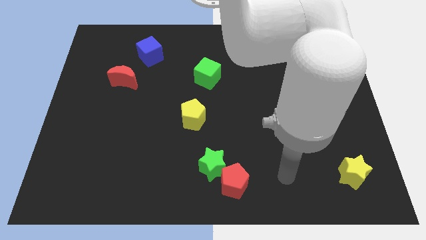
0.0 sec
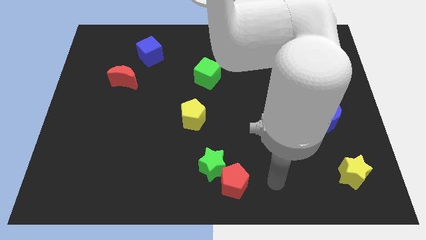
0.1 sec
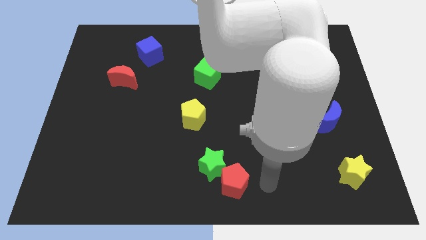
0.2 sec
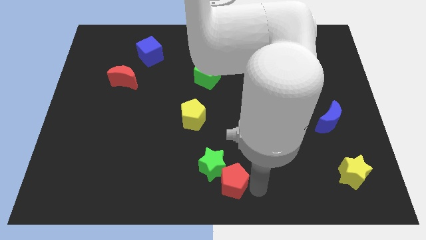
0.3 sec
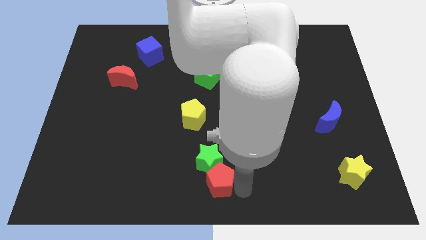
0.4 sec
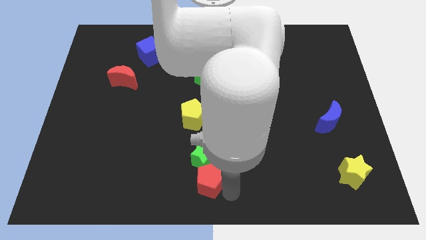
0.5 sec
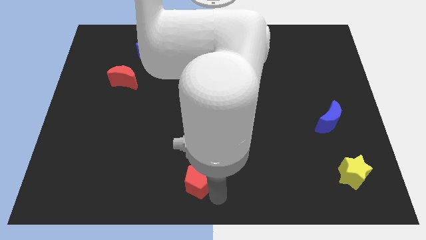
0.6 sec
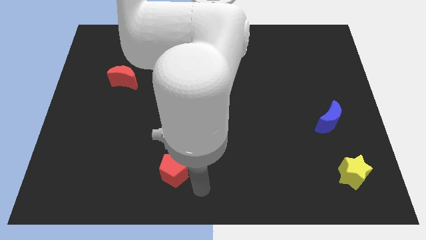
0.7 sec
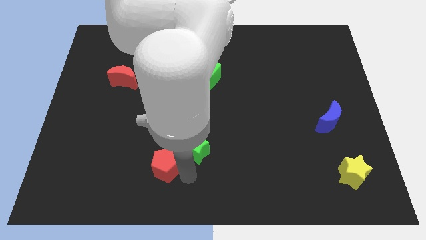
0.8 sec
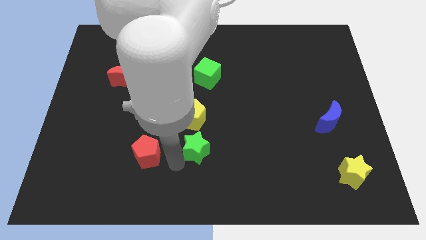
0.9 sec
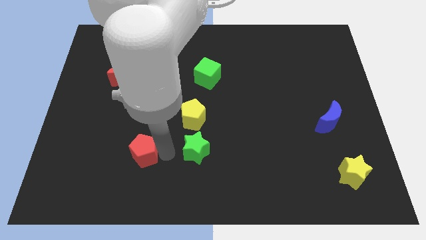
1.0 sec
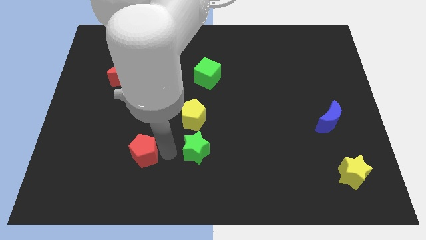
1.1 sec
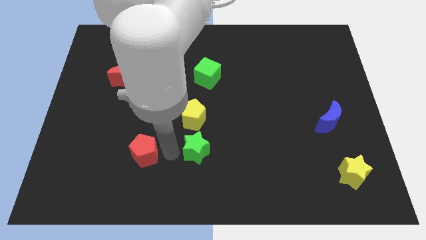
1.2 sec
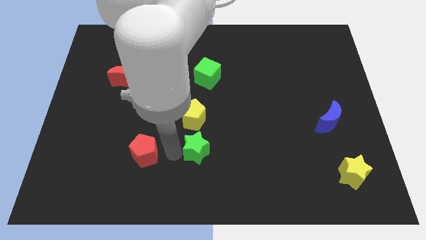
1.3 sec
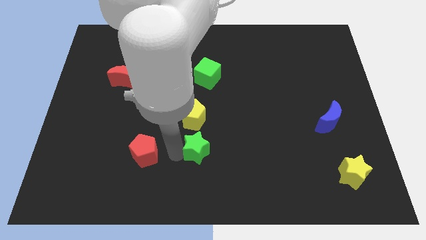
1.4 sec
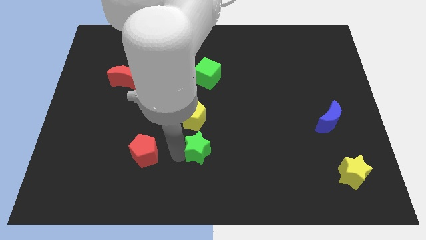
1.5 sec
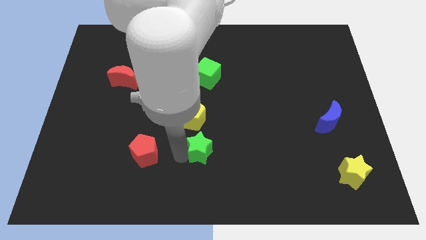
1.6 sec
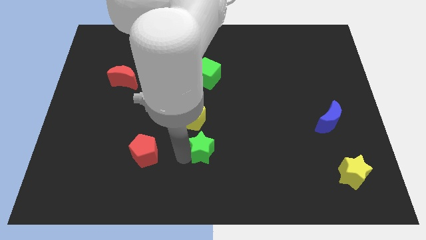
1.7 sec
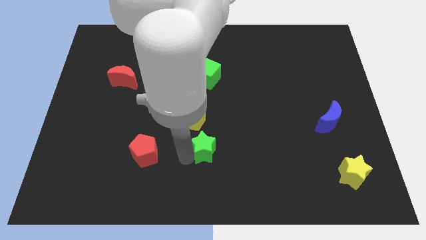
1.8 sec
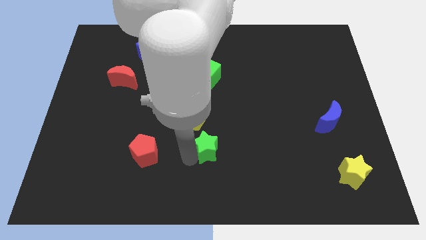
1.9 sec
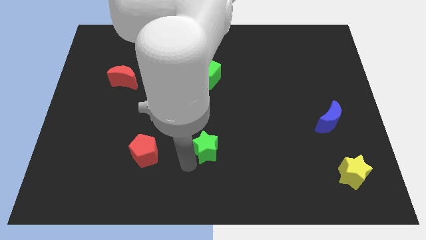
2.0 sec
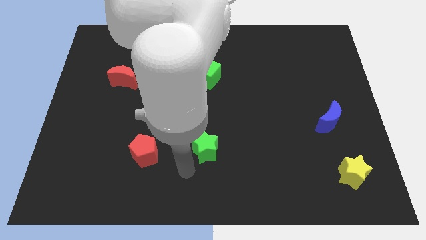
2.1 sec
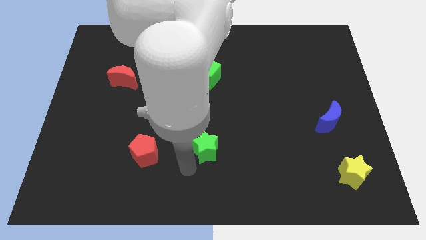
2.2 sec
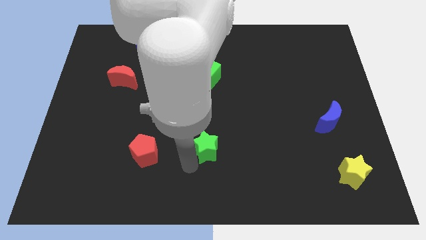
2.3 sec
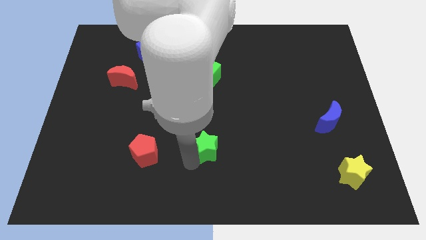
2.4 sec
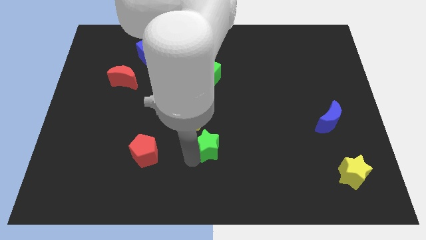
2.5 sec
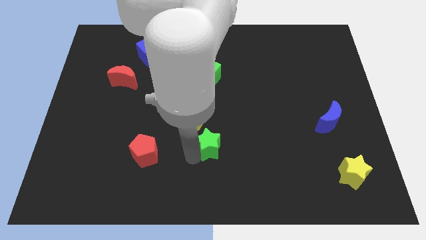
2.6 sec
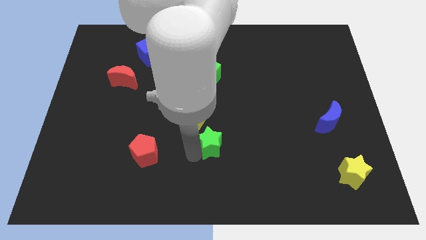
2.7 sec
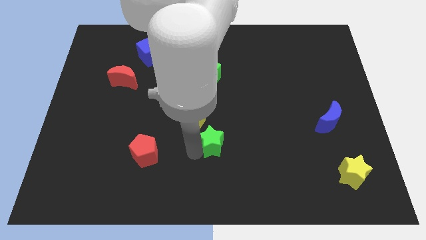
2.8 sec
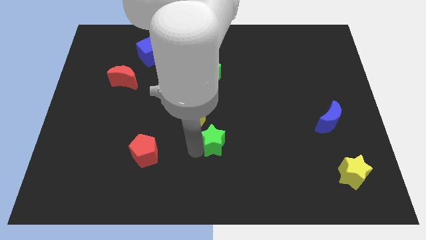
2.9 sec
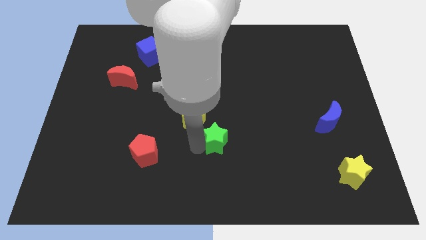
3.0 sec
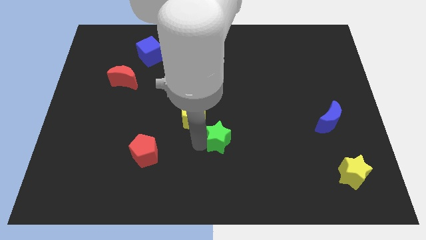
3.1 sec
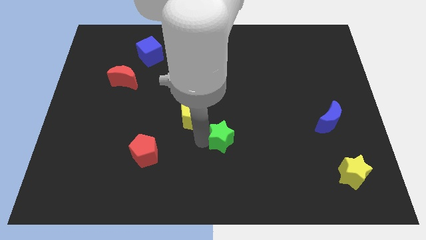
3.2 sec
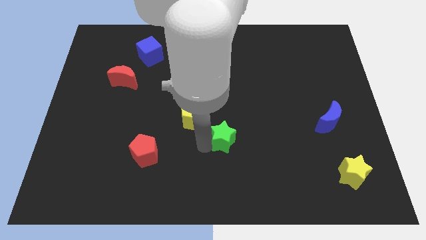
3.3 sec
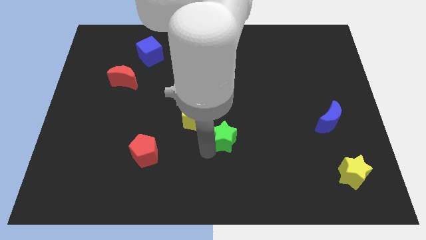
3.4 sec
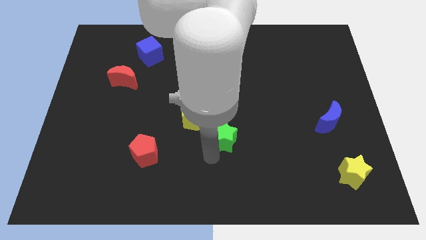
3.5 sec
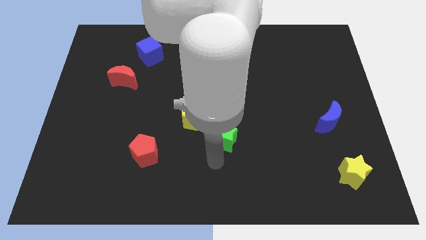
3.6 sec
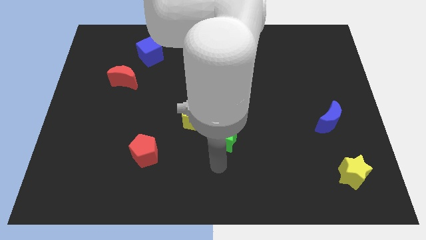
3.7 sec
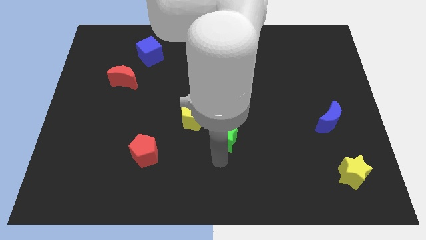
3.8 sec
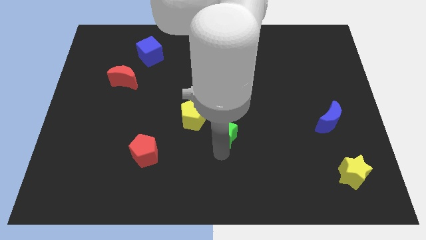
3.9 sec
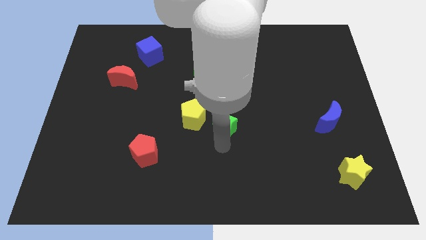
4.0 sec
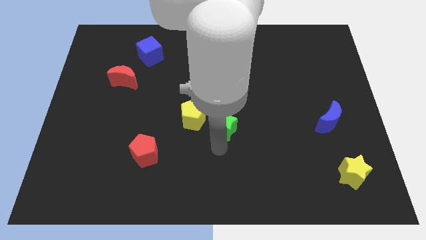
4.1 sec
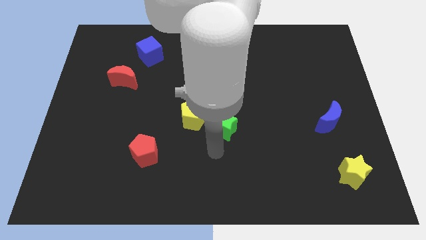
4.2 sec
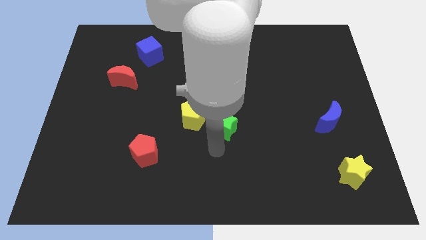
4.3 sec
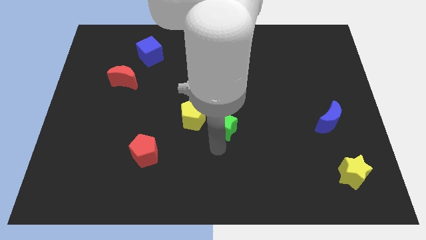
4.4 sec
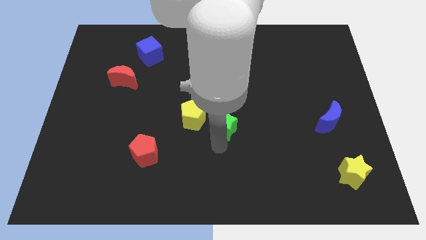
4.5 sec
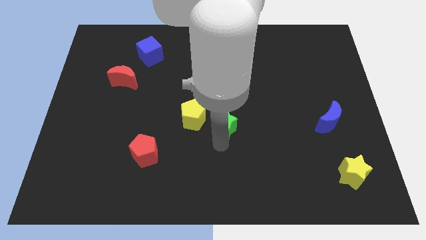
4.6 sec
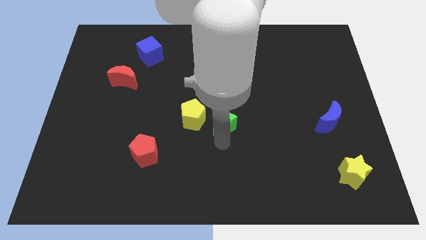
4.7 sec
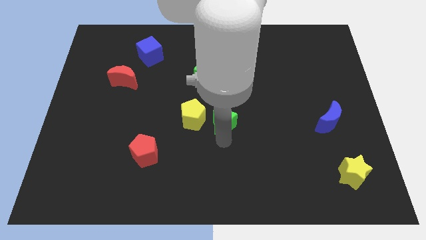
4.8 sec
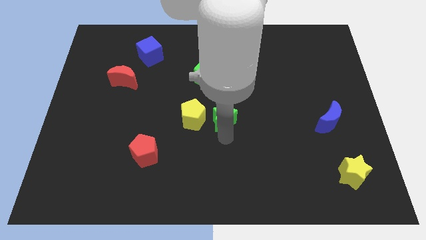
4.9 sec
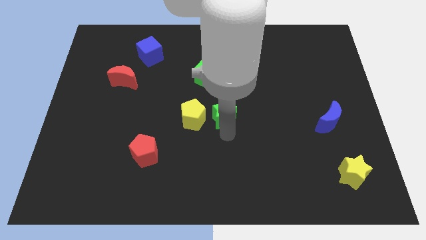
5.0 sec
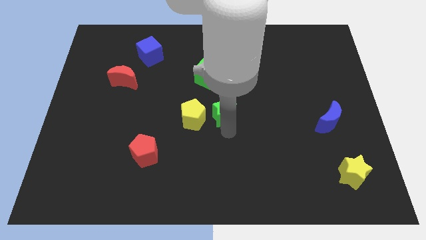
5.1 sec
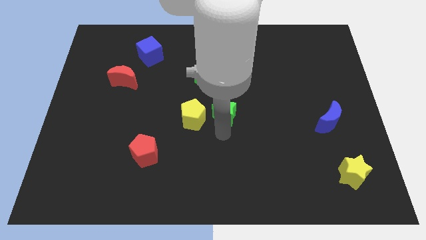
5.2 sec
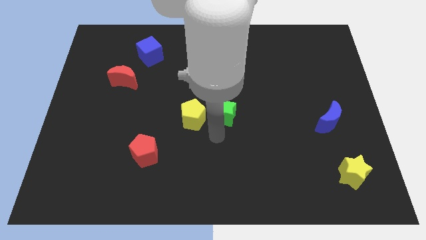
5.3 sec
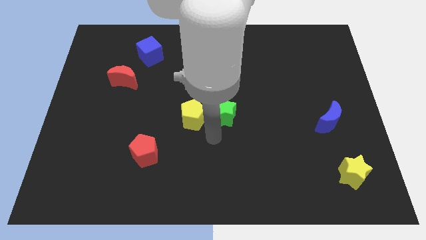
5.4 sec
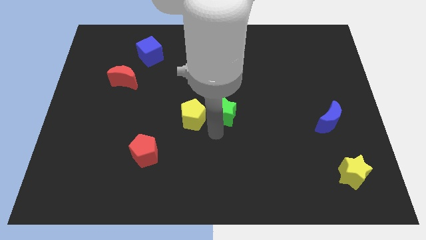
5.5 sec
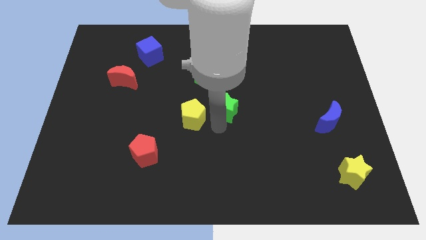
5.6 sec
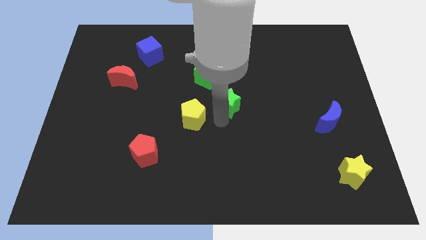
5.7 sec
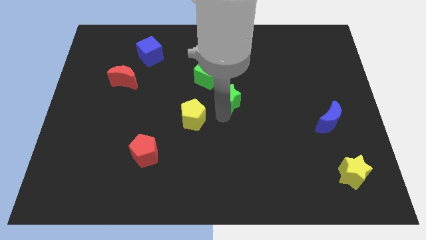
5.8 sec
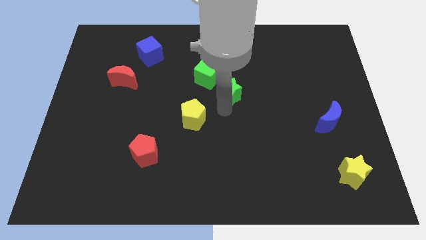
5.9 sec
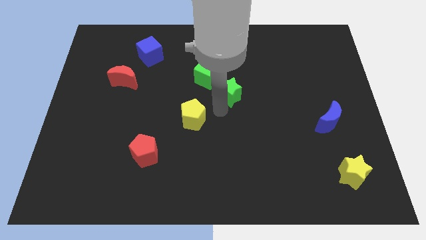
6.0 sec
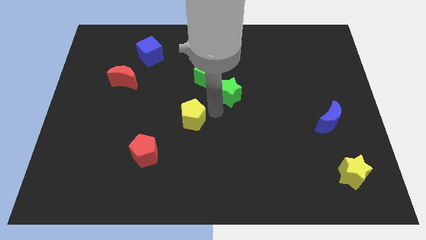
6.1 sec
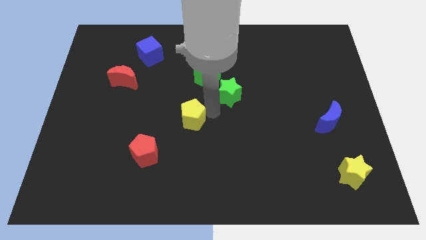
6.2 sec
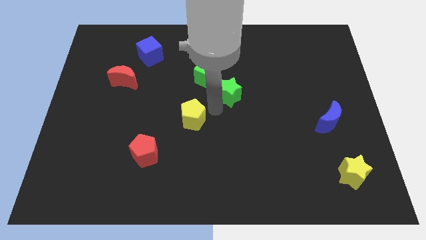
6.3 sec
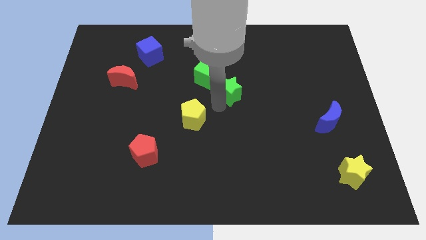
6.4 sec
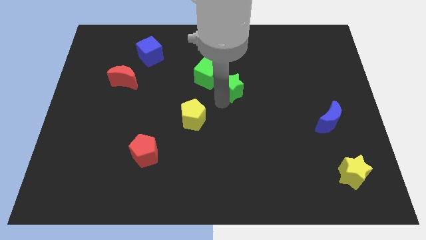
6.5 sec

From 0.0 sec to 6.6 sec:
move the green star up

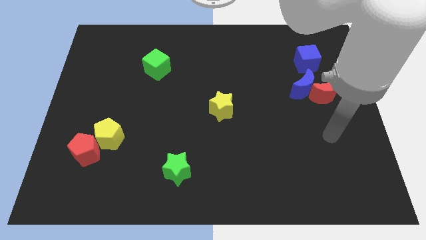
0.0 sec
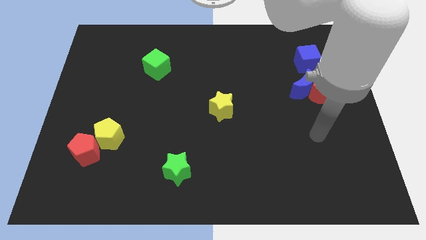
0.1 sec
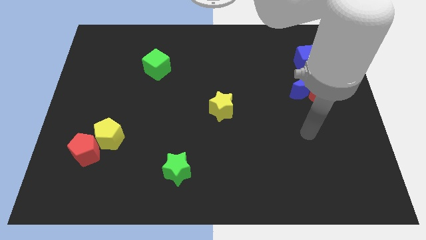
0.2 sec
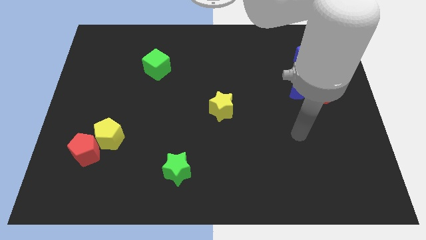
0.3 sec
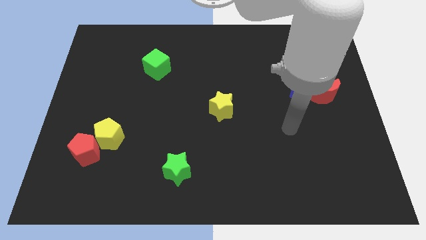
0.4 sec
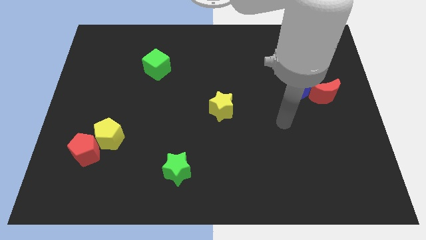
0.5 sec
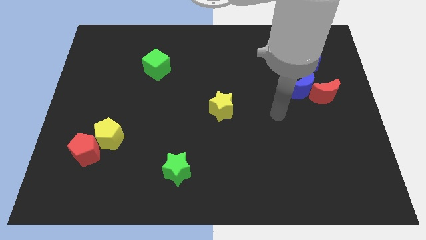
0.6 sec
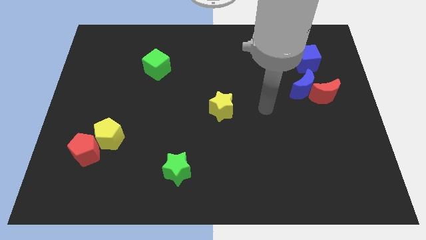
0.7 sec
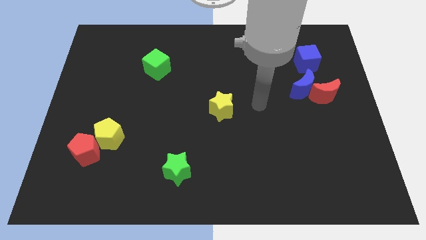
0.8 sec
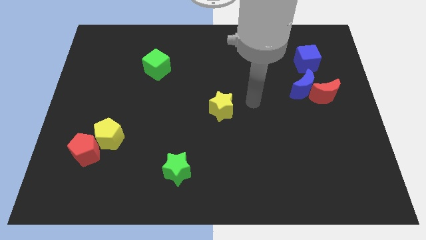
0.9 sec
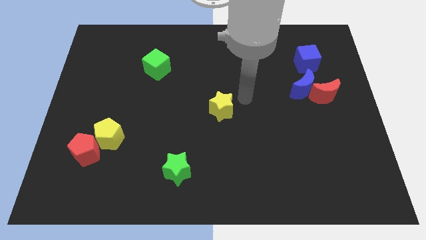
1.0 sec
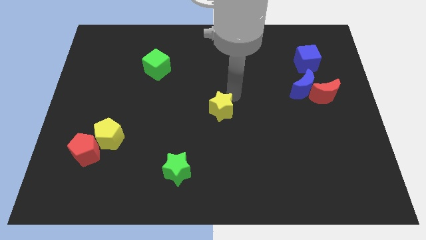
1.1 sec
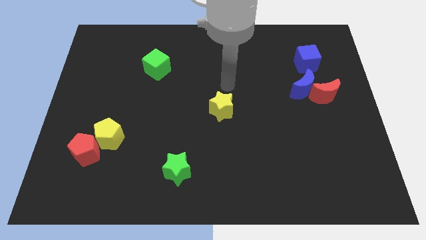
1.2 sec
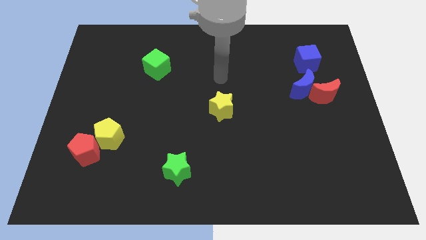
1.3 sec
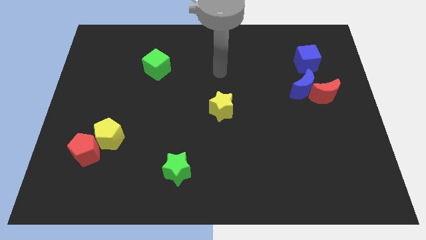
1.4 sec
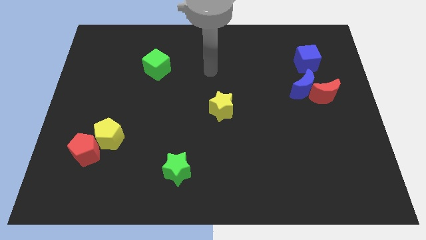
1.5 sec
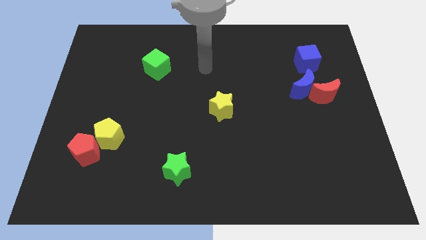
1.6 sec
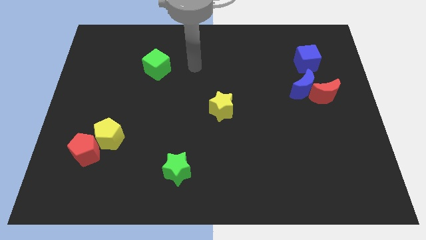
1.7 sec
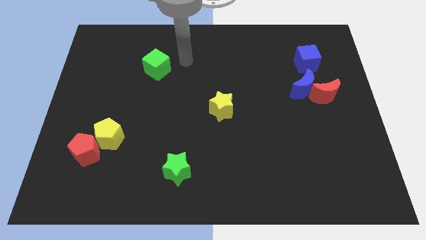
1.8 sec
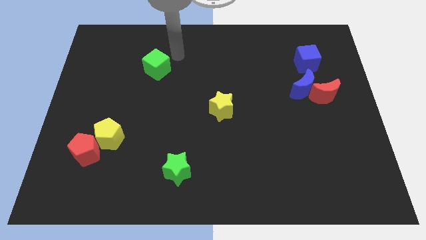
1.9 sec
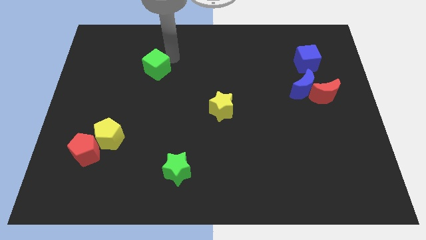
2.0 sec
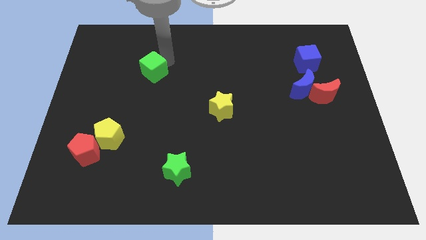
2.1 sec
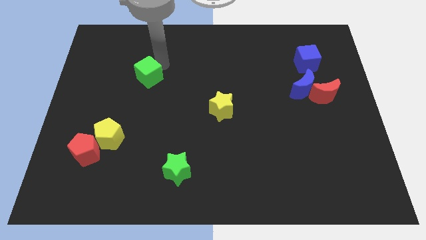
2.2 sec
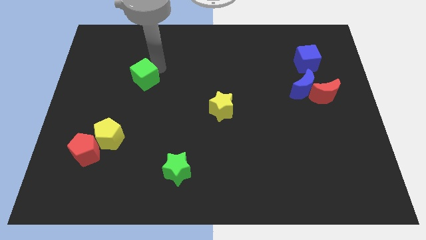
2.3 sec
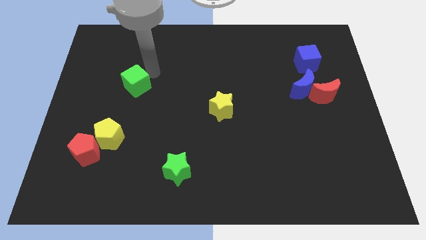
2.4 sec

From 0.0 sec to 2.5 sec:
slightly push the green cube diagonally downwards and to the left
